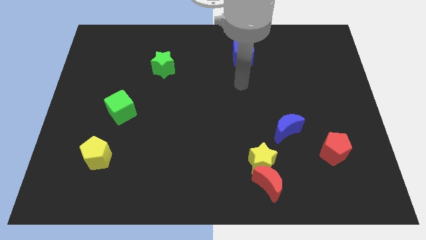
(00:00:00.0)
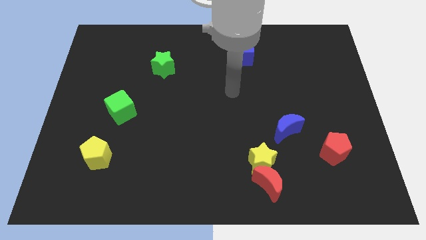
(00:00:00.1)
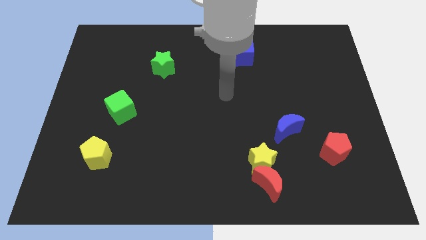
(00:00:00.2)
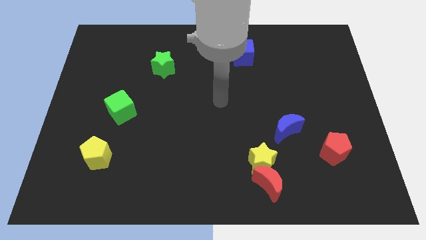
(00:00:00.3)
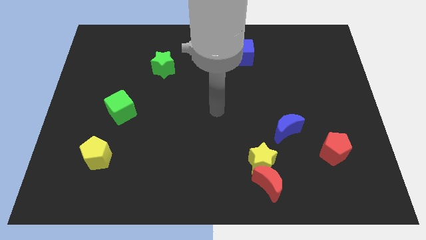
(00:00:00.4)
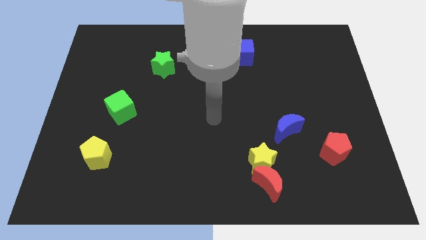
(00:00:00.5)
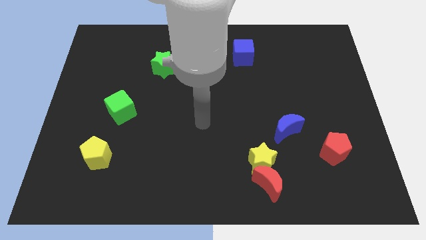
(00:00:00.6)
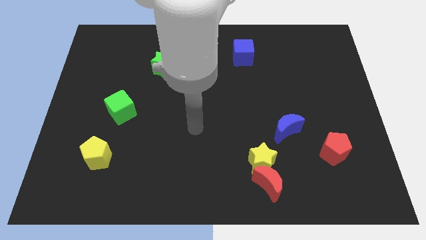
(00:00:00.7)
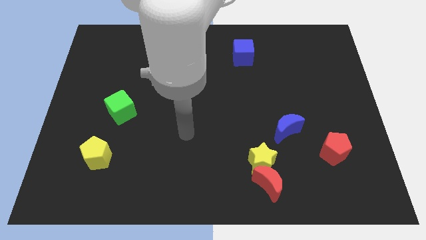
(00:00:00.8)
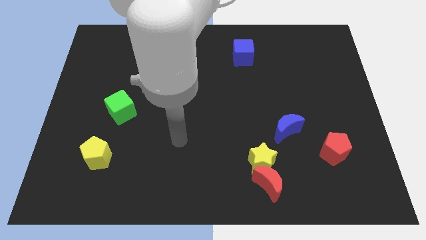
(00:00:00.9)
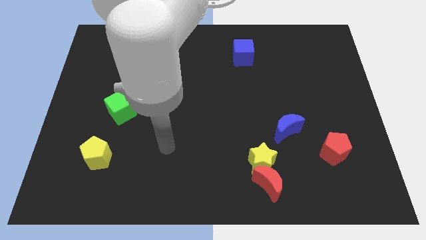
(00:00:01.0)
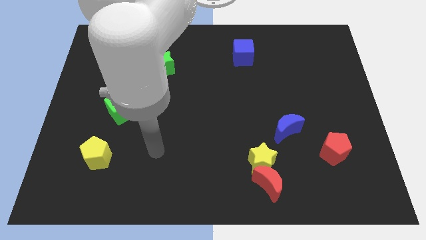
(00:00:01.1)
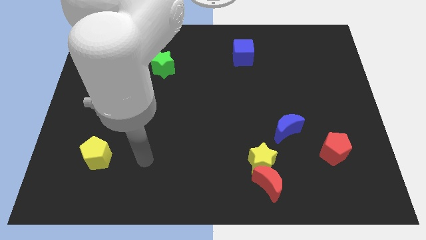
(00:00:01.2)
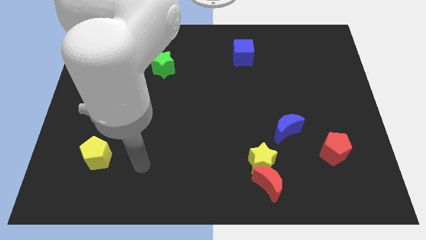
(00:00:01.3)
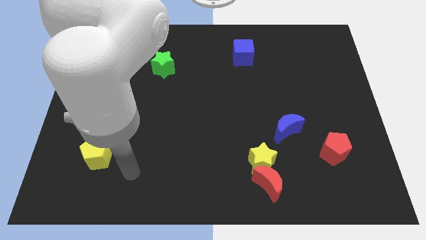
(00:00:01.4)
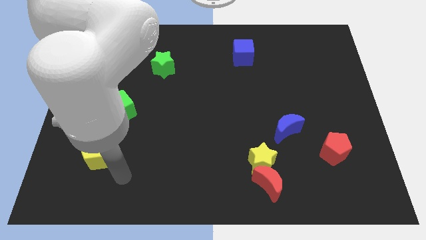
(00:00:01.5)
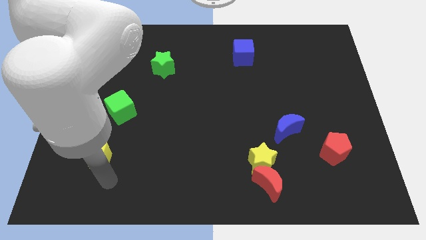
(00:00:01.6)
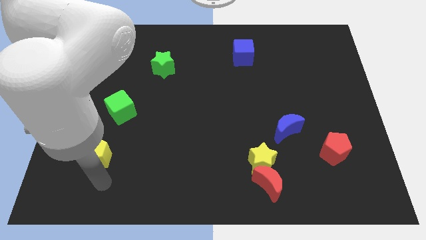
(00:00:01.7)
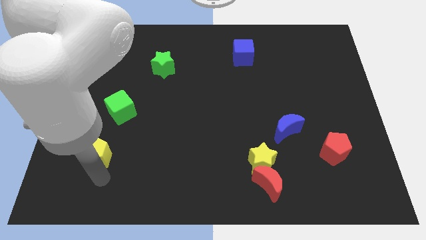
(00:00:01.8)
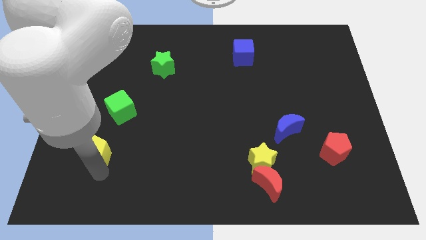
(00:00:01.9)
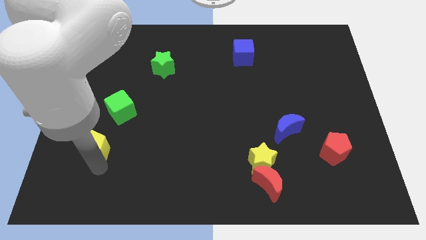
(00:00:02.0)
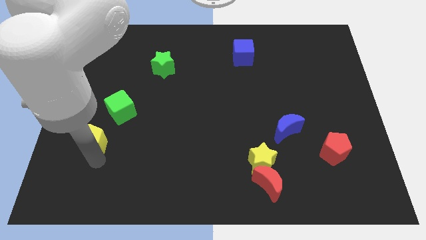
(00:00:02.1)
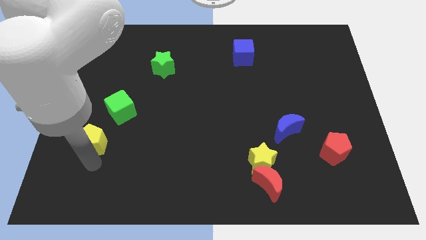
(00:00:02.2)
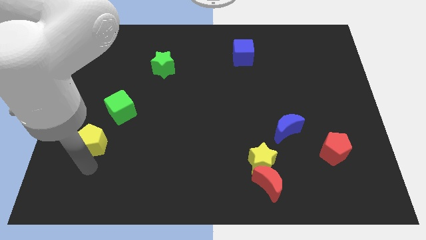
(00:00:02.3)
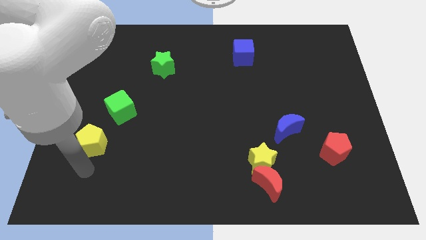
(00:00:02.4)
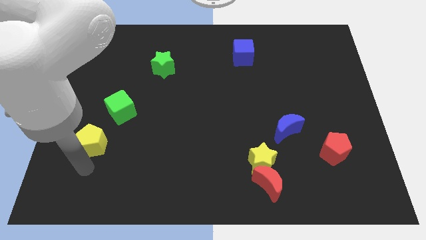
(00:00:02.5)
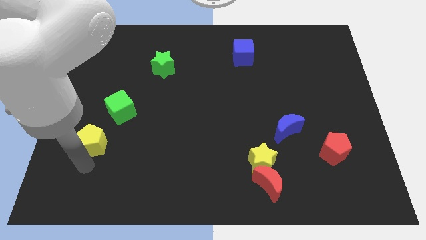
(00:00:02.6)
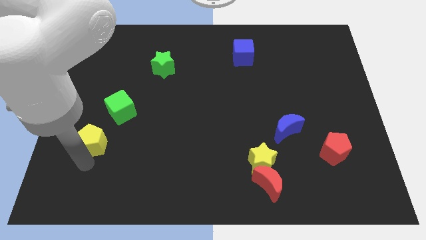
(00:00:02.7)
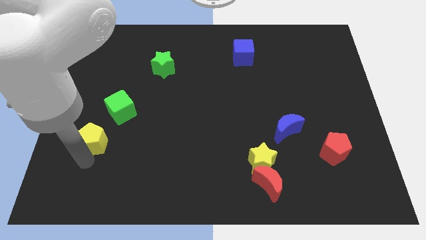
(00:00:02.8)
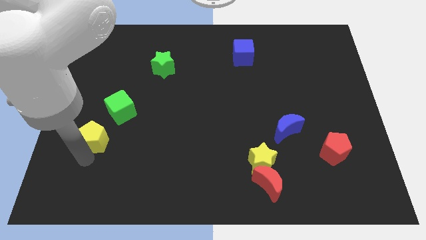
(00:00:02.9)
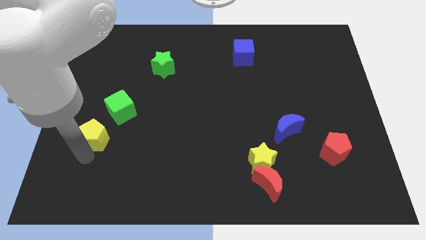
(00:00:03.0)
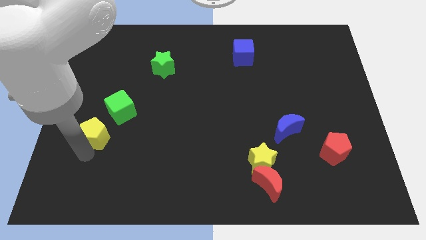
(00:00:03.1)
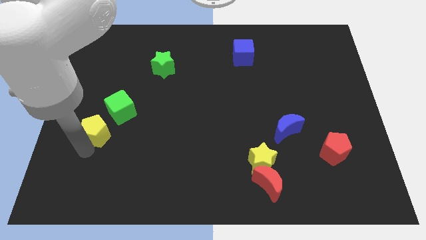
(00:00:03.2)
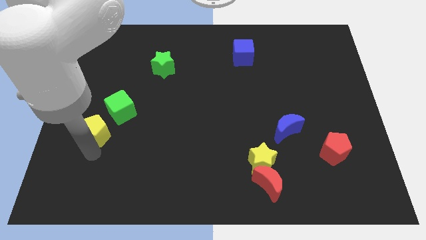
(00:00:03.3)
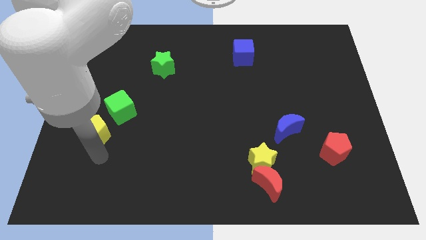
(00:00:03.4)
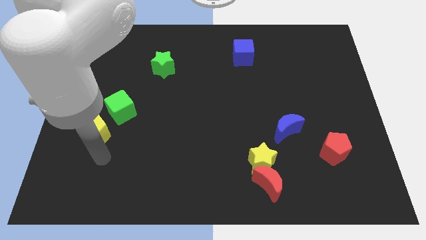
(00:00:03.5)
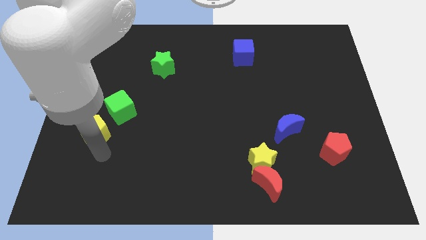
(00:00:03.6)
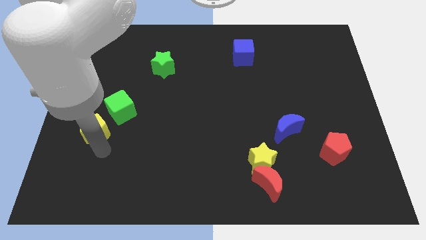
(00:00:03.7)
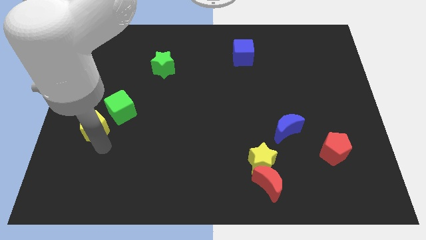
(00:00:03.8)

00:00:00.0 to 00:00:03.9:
push the yellow pentagon up somewhat

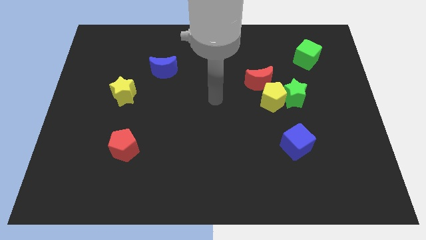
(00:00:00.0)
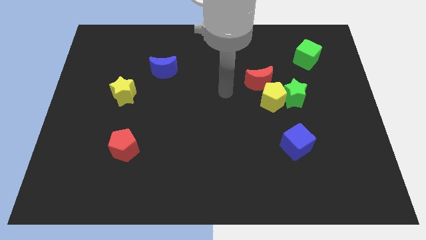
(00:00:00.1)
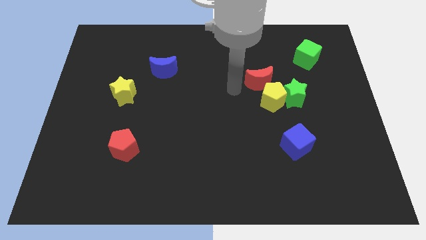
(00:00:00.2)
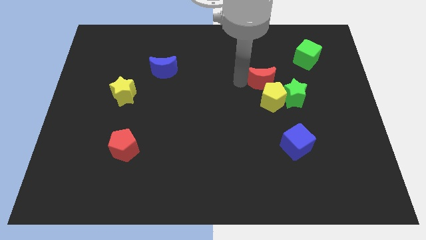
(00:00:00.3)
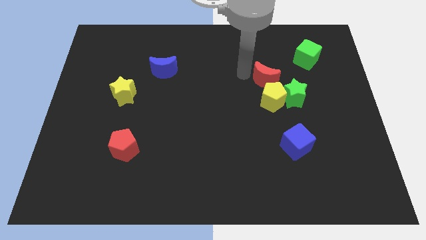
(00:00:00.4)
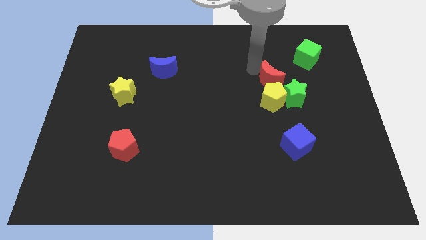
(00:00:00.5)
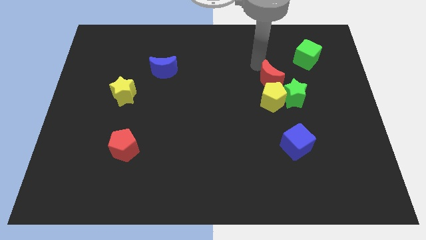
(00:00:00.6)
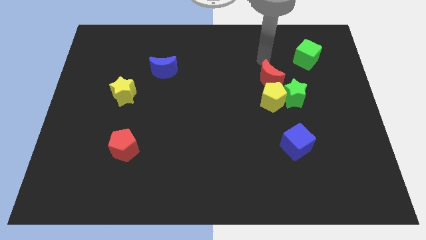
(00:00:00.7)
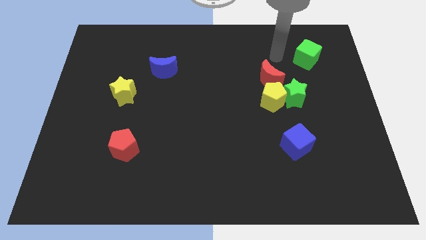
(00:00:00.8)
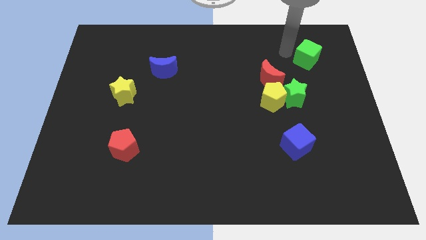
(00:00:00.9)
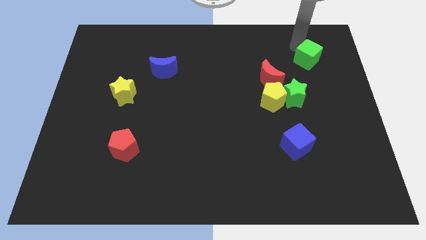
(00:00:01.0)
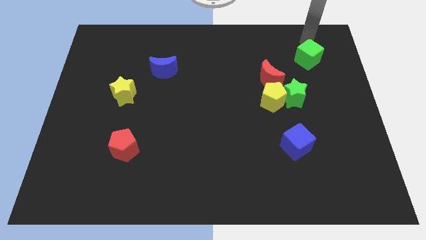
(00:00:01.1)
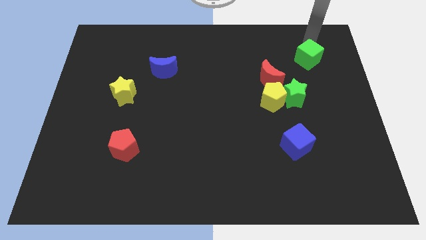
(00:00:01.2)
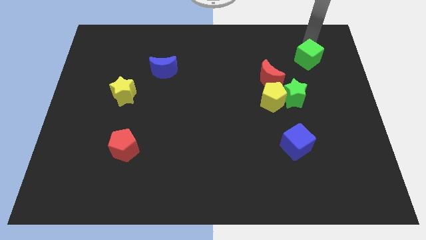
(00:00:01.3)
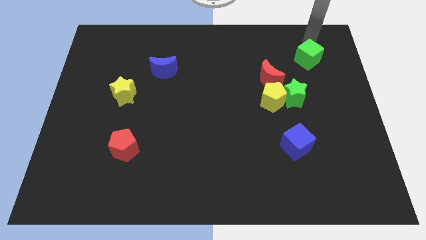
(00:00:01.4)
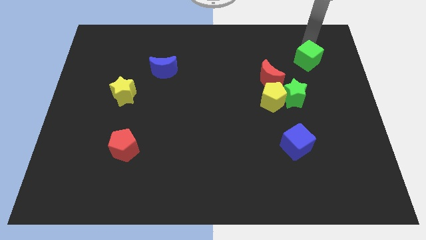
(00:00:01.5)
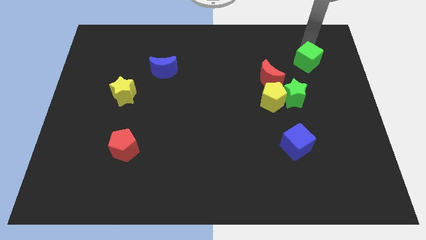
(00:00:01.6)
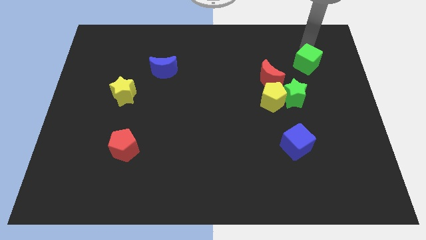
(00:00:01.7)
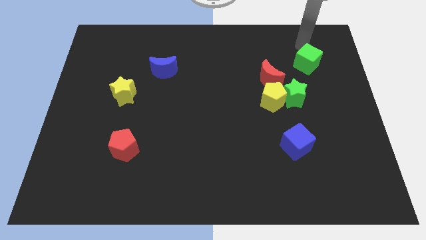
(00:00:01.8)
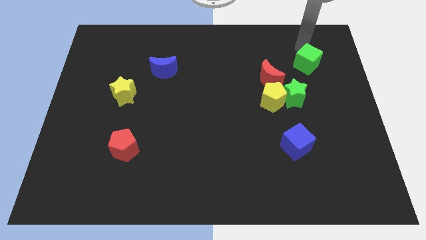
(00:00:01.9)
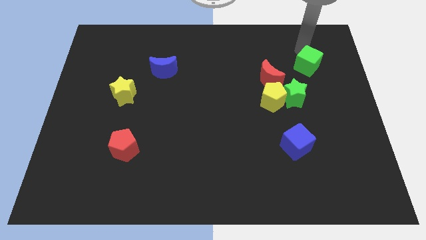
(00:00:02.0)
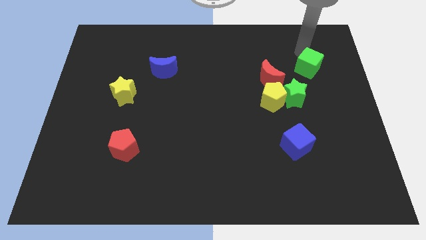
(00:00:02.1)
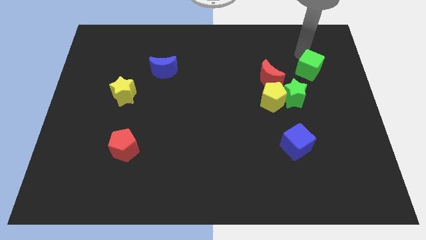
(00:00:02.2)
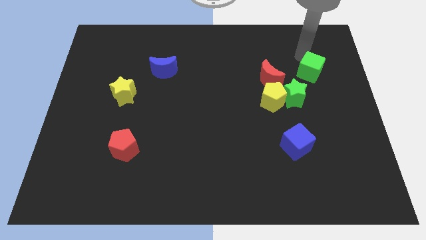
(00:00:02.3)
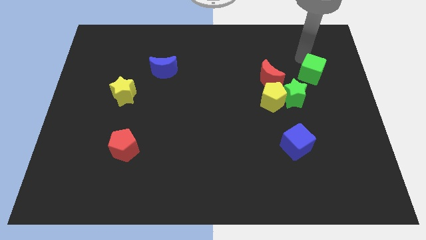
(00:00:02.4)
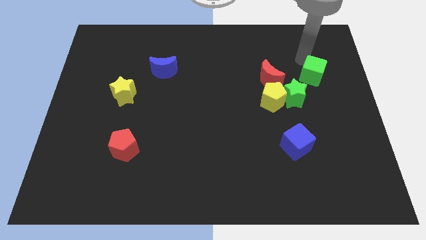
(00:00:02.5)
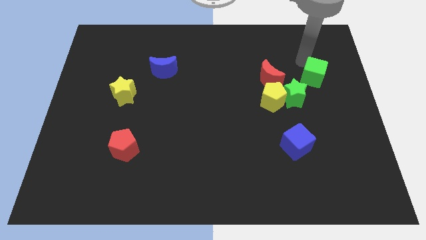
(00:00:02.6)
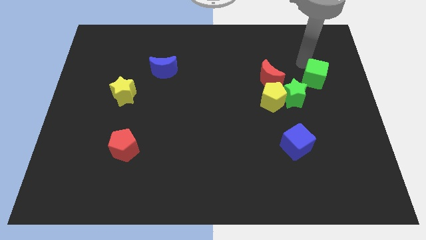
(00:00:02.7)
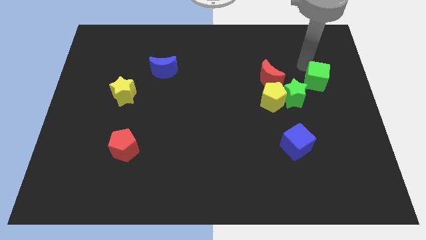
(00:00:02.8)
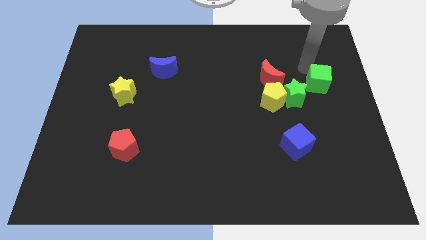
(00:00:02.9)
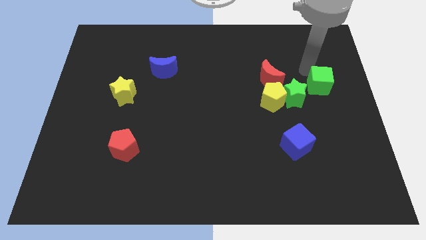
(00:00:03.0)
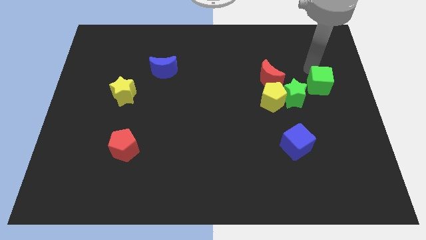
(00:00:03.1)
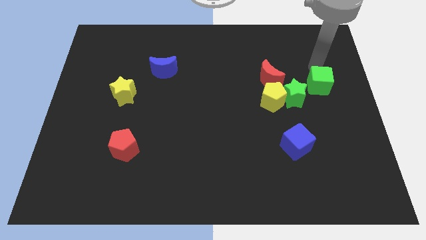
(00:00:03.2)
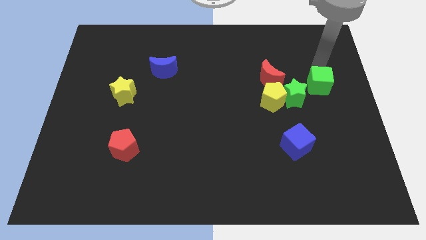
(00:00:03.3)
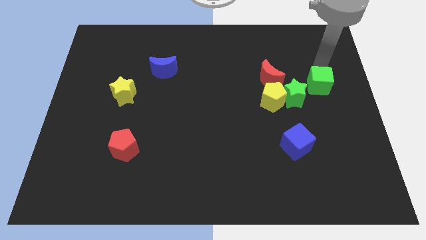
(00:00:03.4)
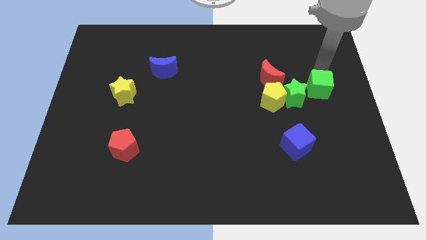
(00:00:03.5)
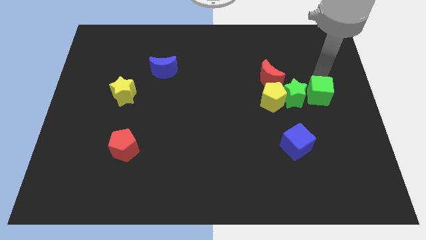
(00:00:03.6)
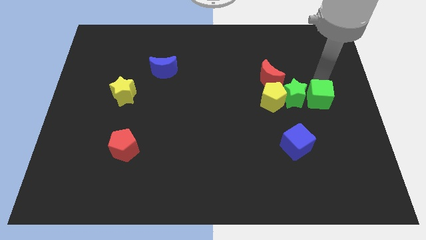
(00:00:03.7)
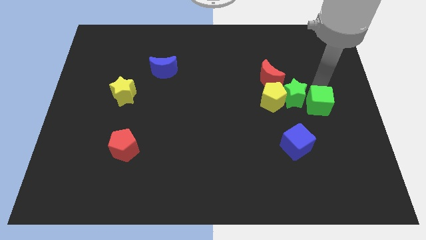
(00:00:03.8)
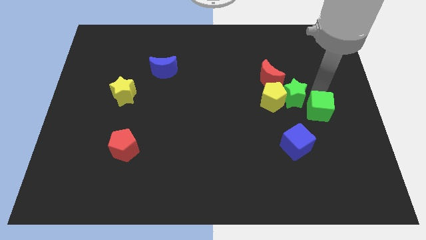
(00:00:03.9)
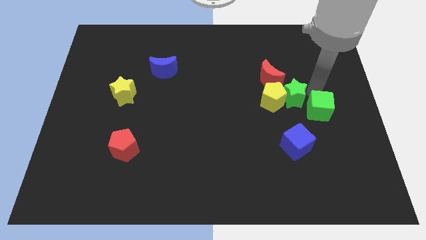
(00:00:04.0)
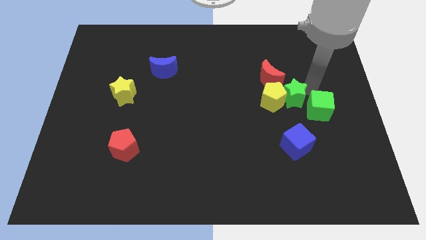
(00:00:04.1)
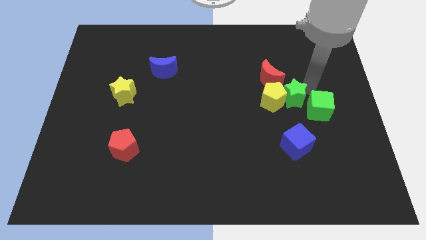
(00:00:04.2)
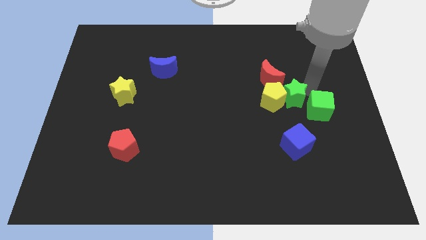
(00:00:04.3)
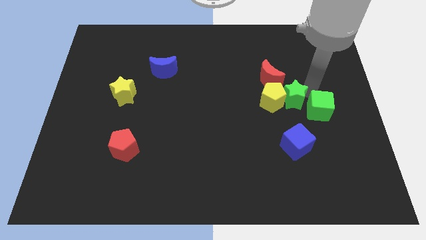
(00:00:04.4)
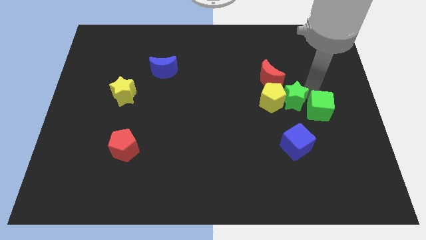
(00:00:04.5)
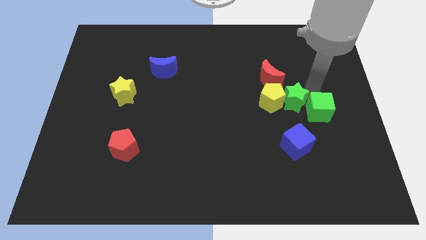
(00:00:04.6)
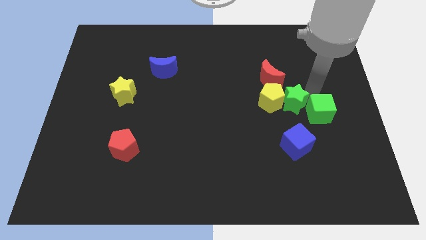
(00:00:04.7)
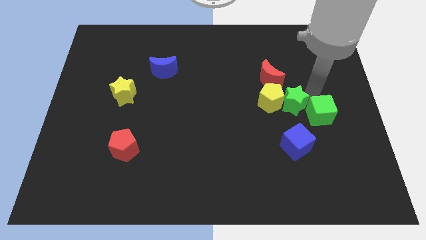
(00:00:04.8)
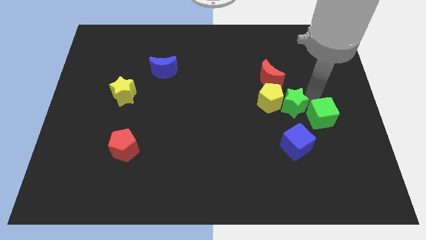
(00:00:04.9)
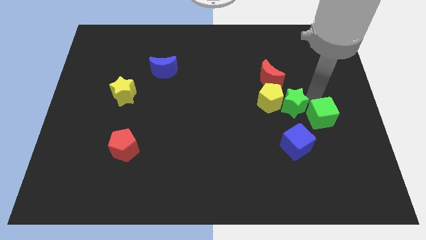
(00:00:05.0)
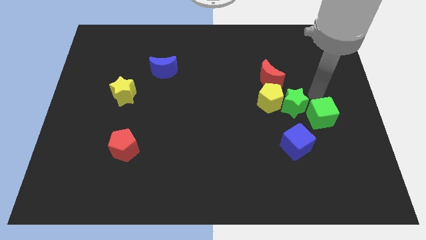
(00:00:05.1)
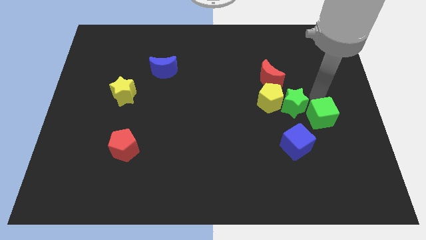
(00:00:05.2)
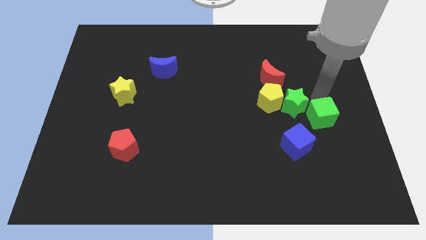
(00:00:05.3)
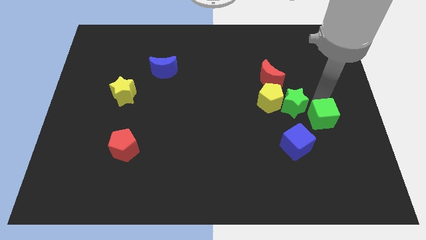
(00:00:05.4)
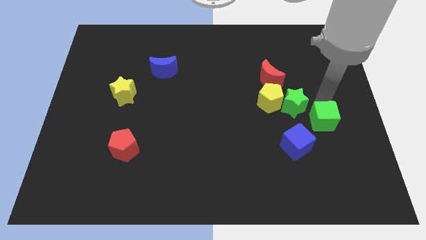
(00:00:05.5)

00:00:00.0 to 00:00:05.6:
move the green cube downwards
